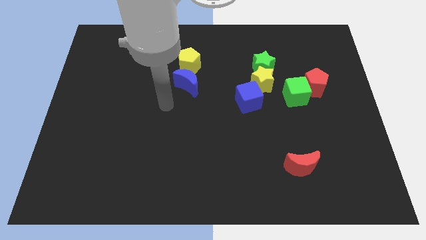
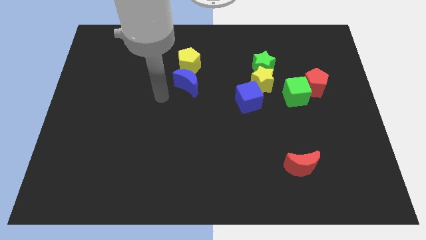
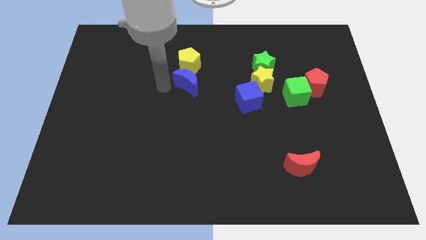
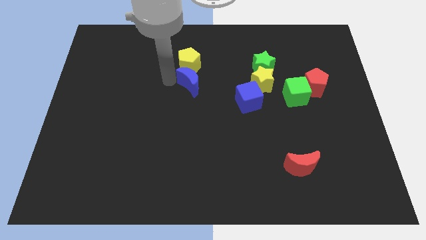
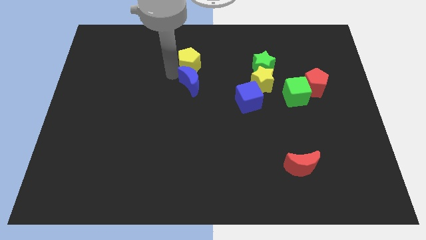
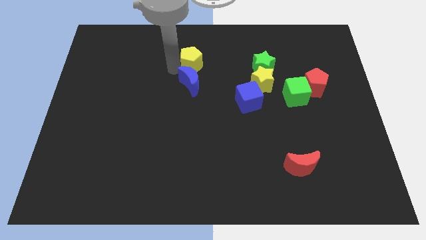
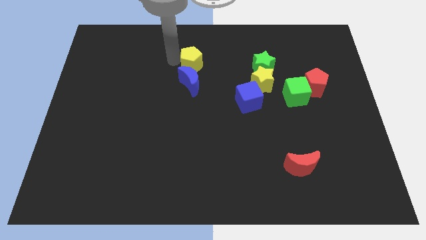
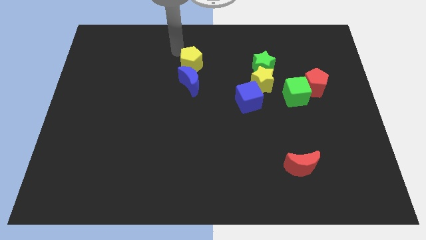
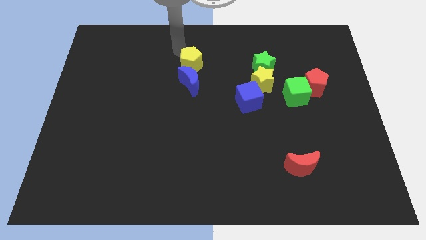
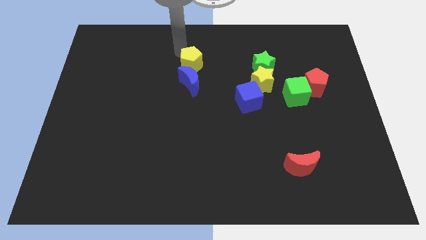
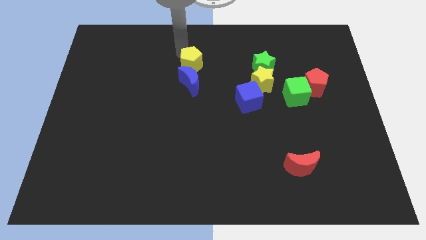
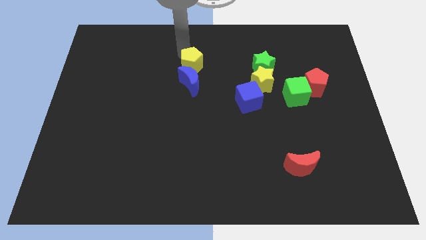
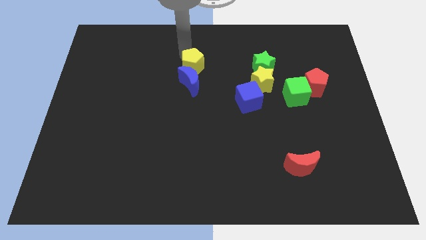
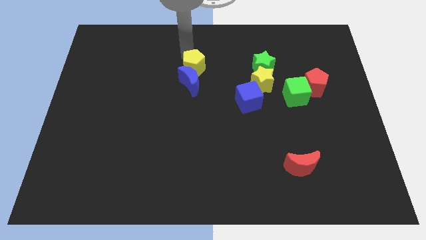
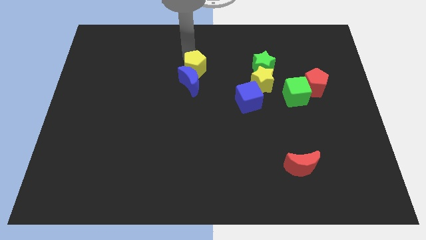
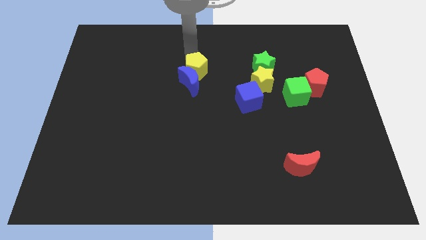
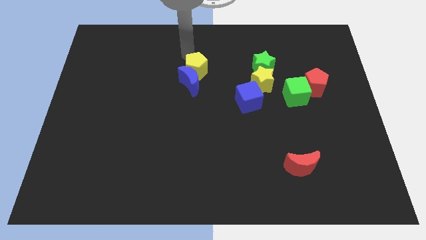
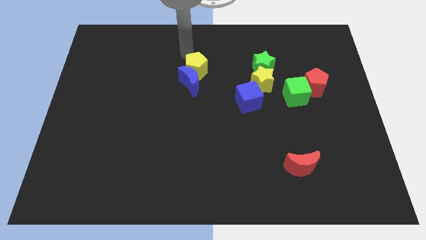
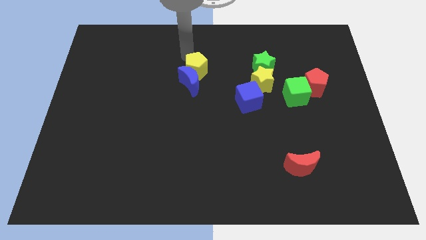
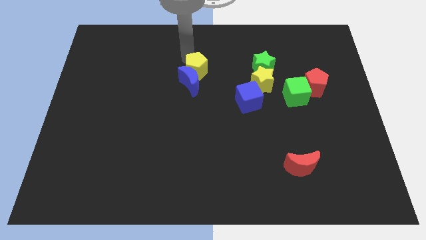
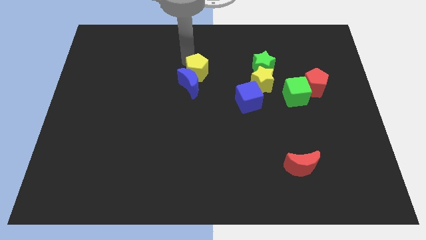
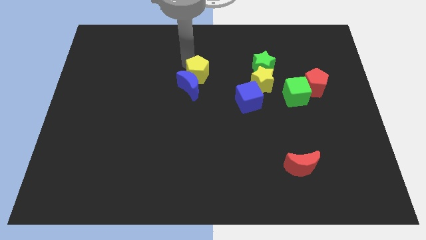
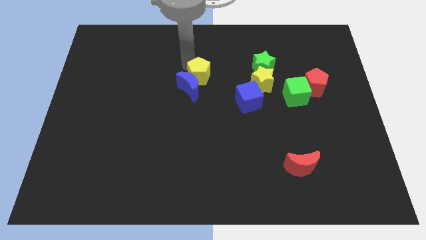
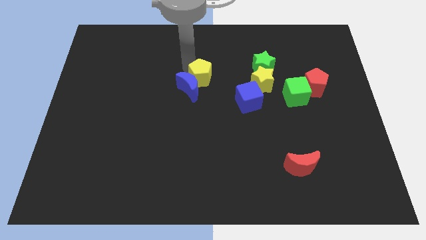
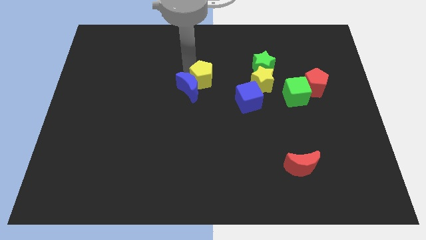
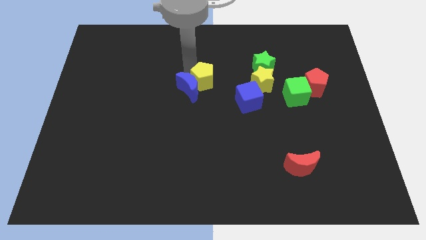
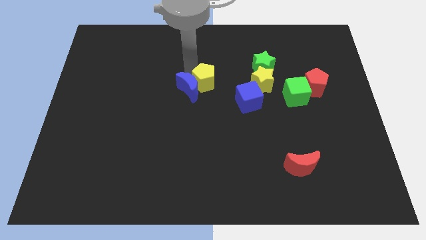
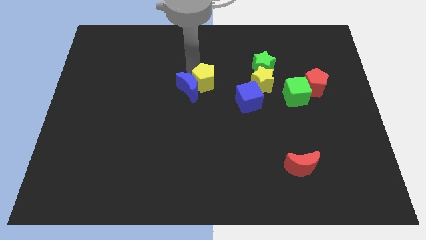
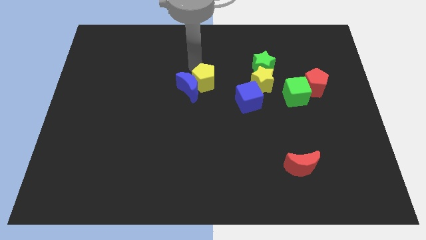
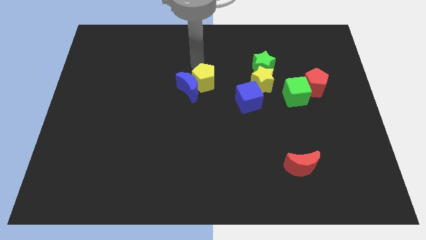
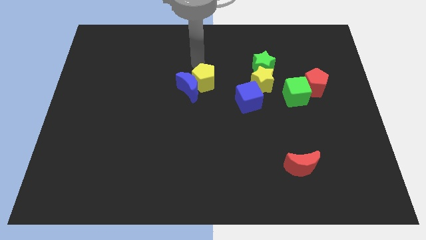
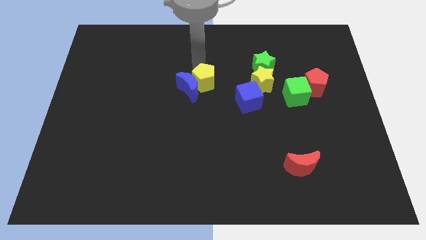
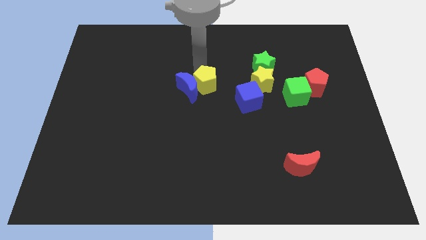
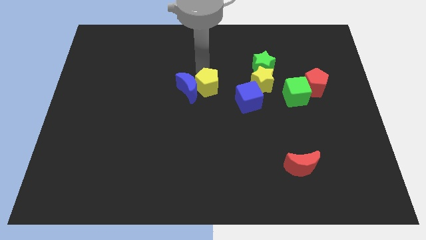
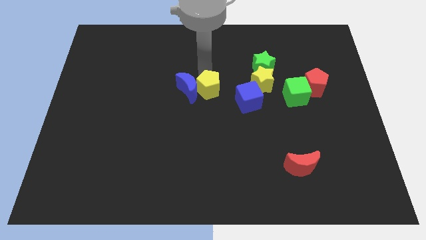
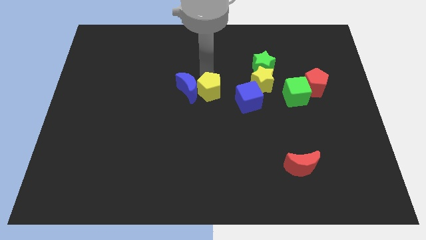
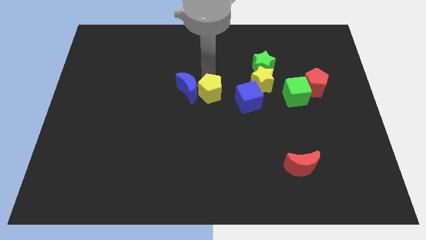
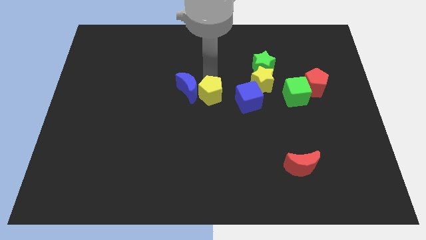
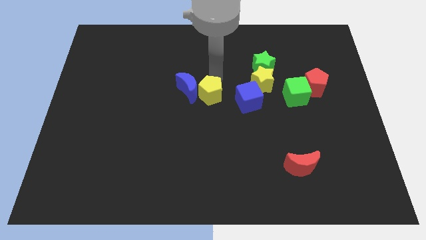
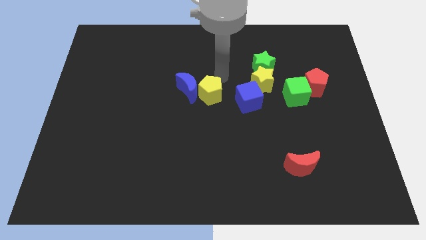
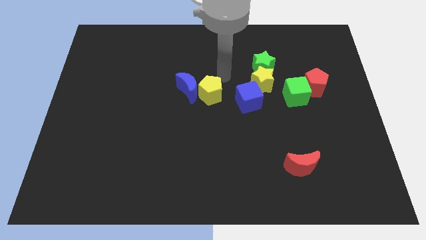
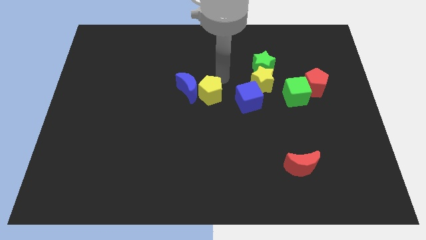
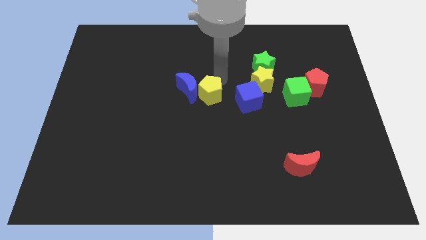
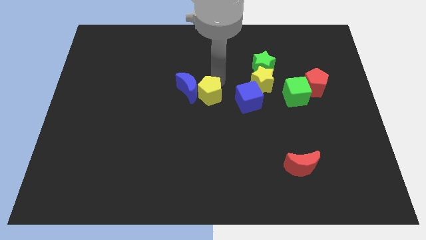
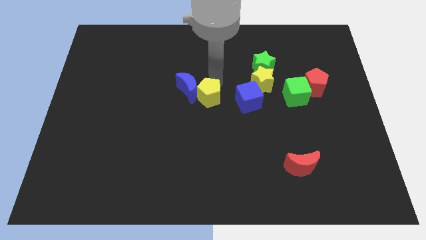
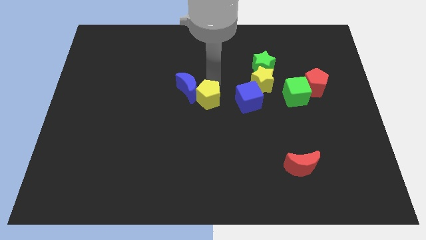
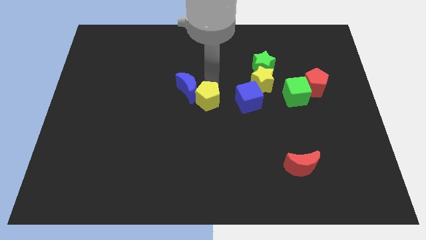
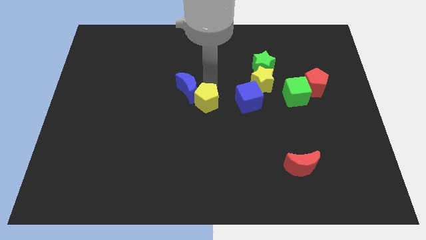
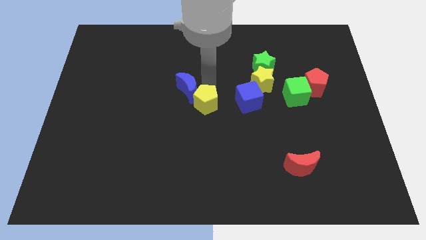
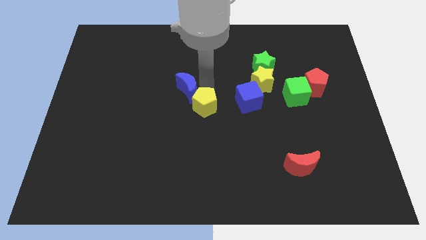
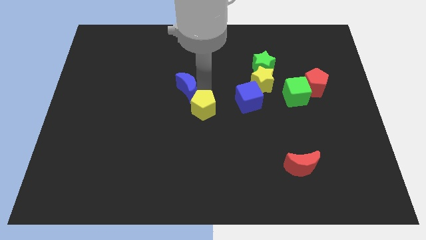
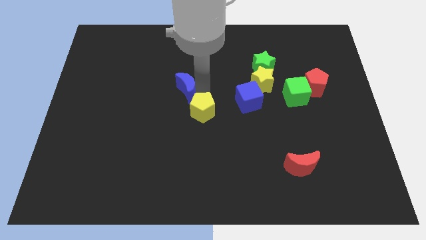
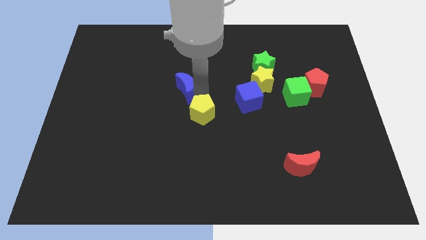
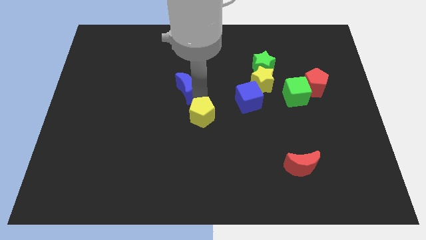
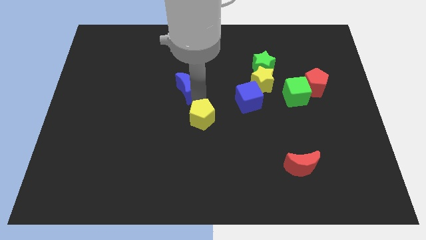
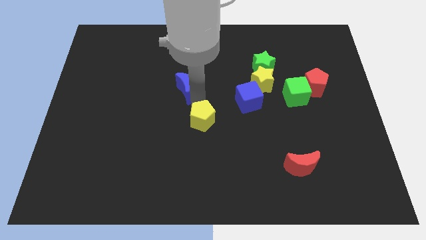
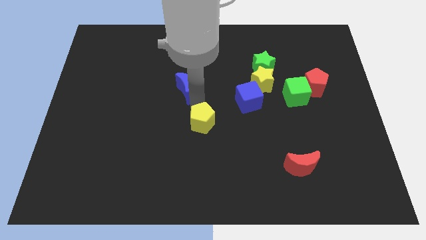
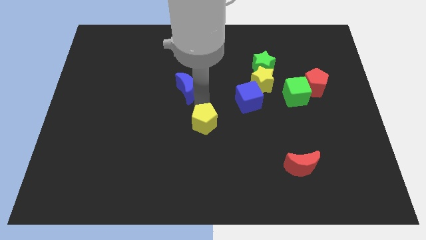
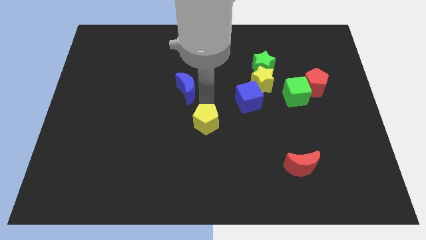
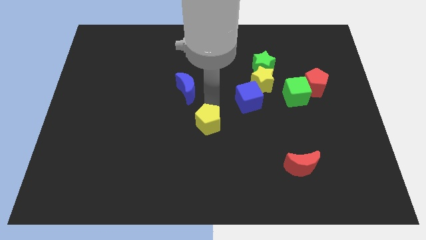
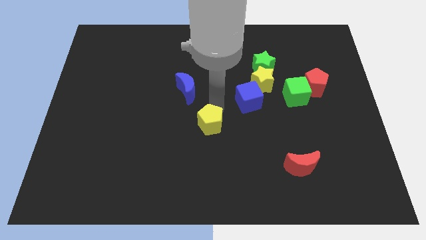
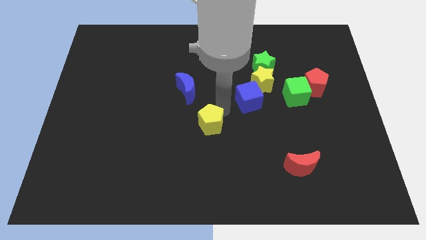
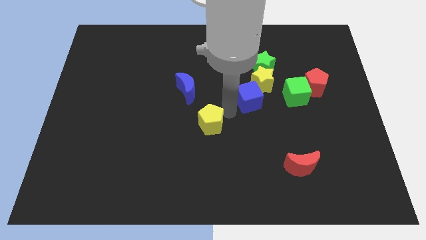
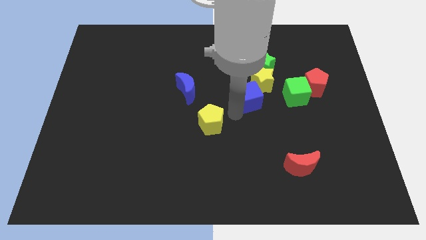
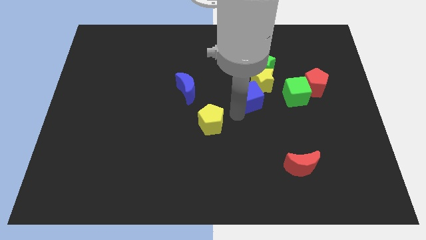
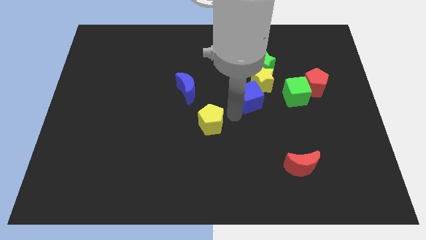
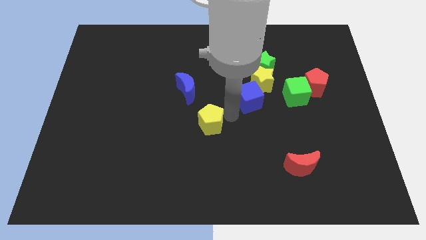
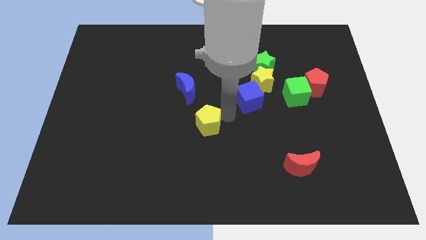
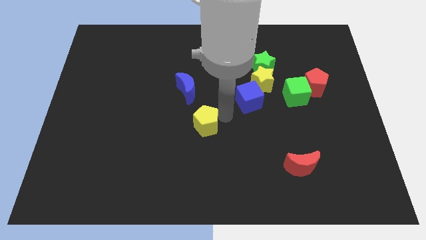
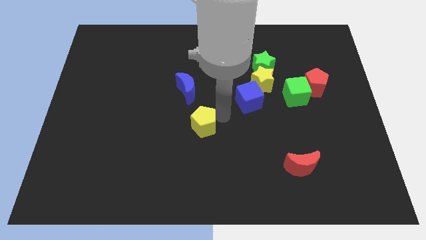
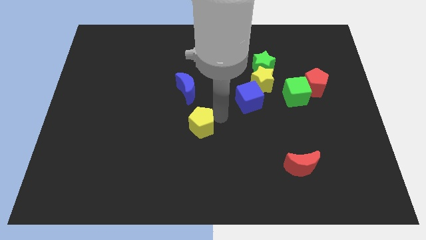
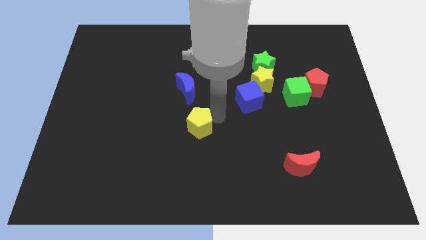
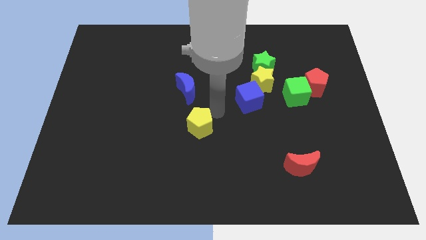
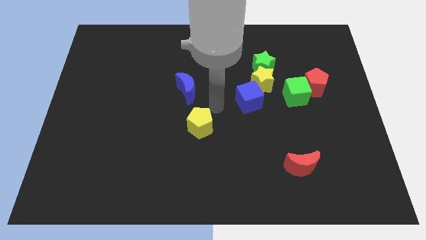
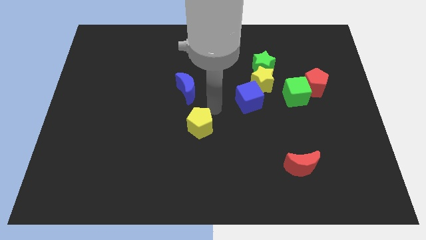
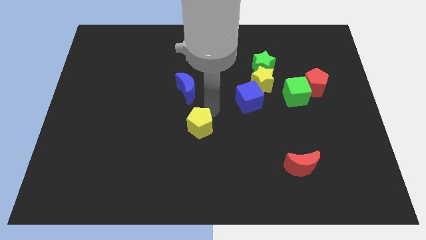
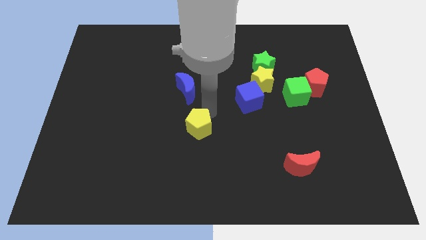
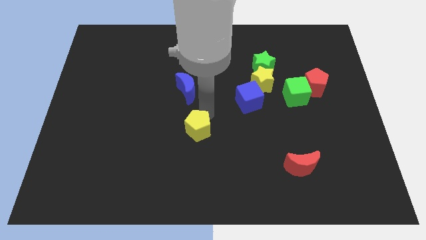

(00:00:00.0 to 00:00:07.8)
slide the yellow pentagon down

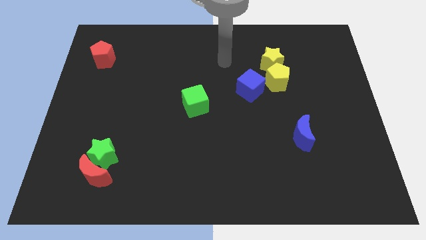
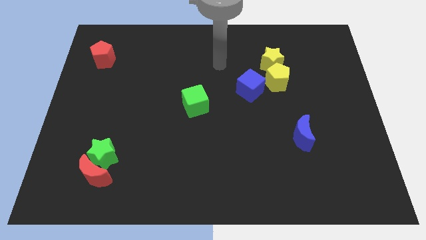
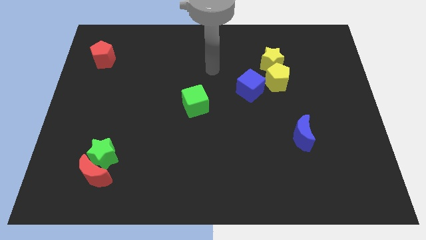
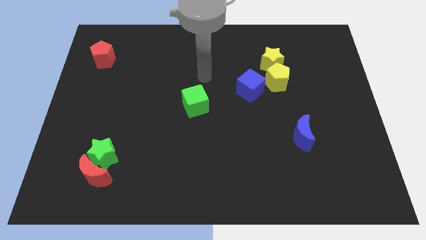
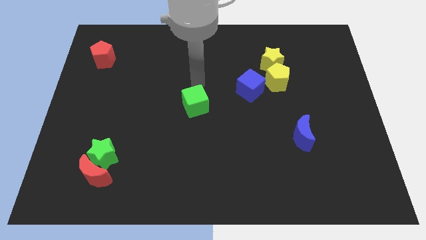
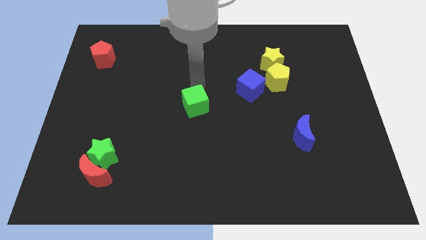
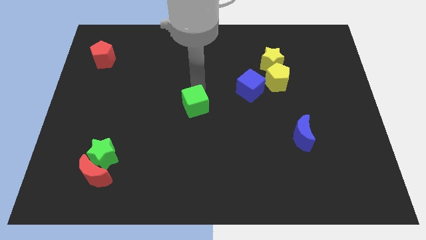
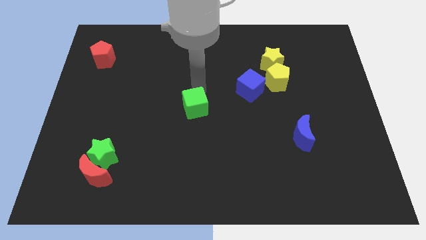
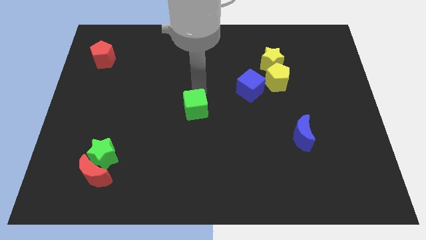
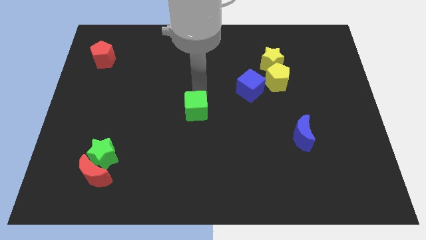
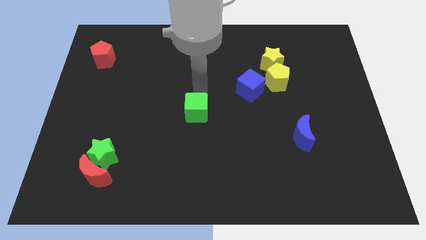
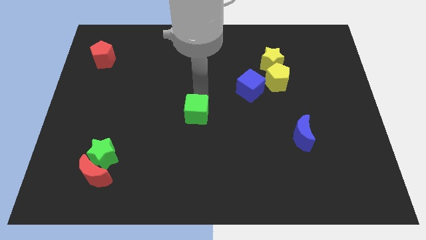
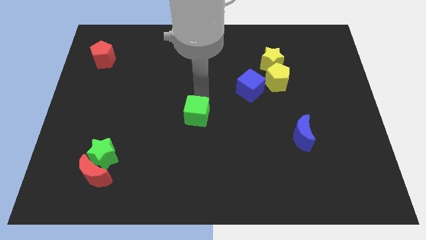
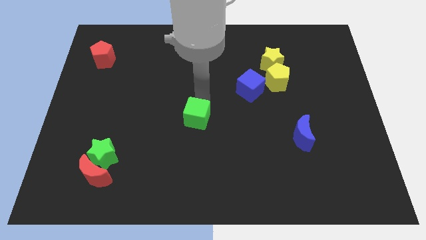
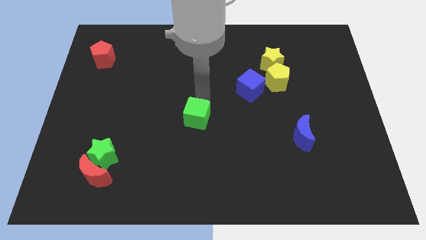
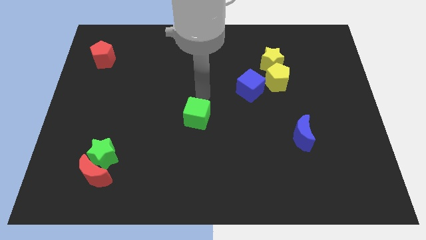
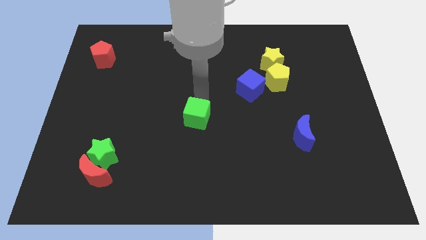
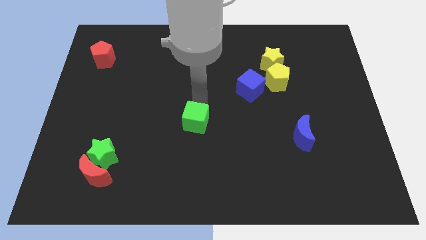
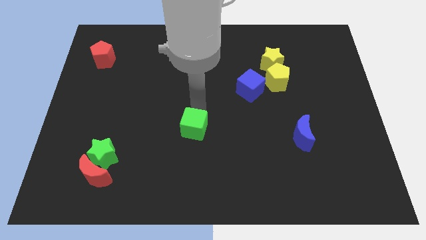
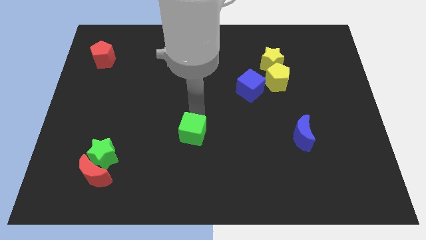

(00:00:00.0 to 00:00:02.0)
slide the green cube slightly downwards
